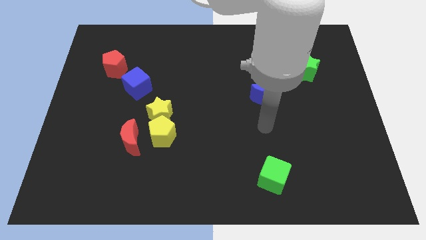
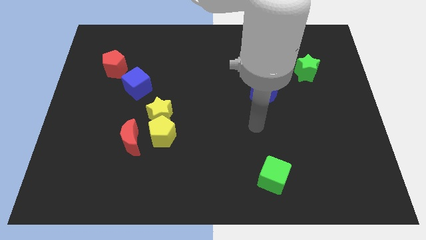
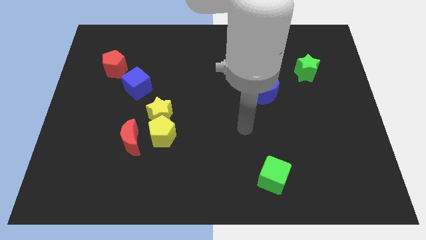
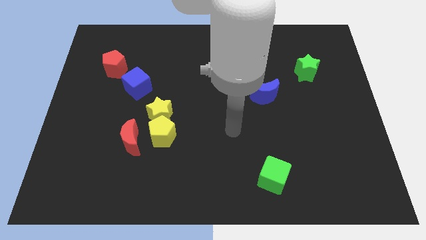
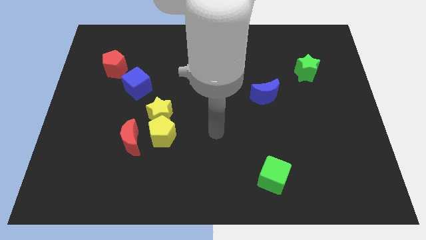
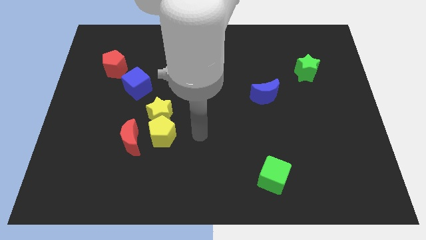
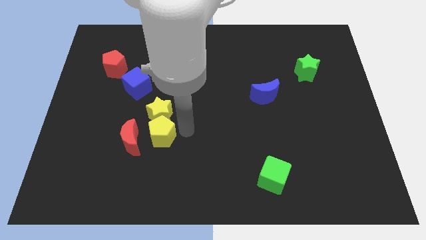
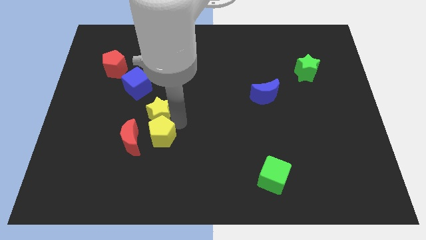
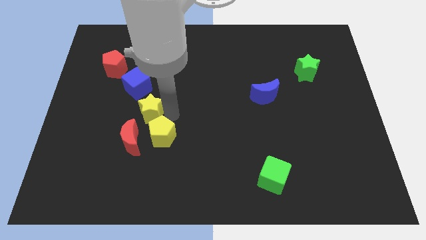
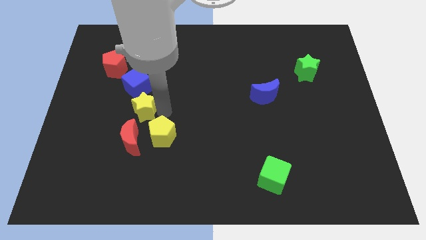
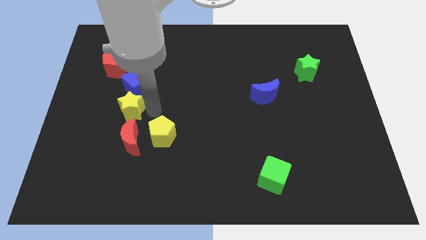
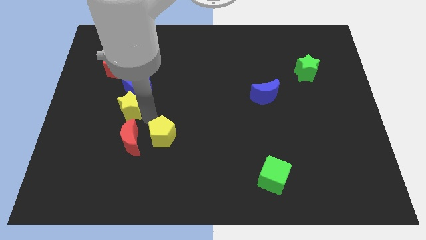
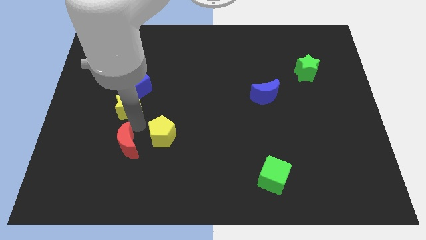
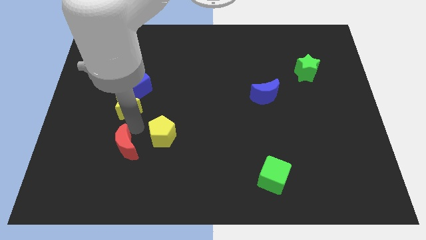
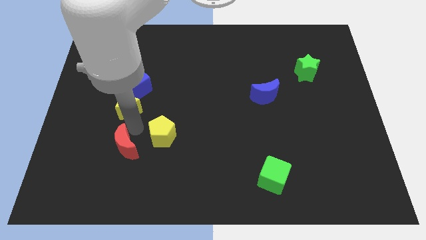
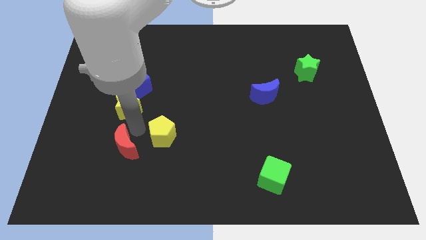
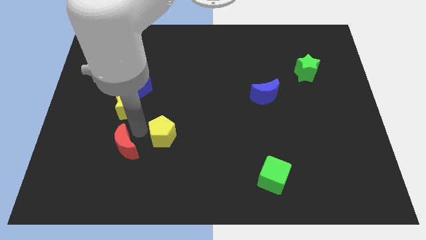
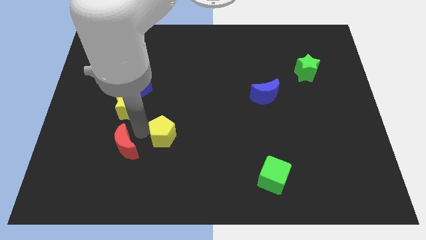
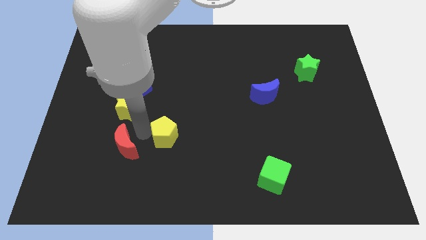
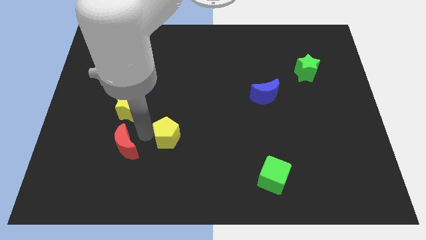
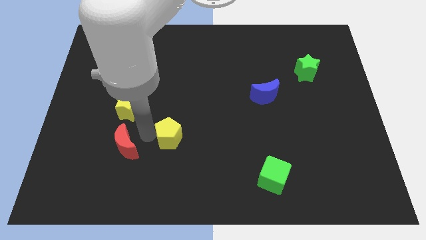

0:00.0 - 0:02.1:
move the yellow pentagon away from the yellow star and red moon

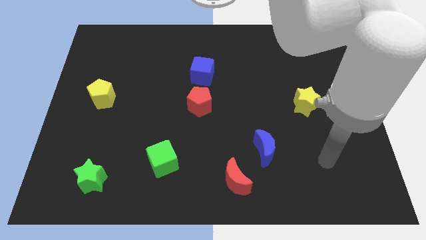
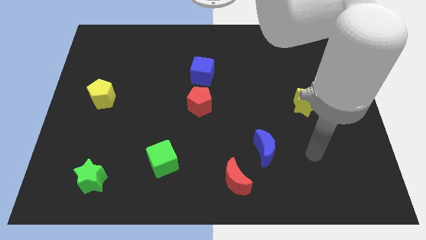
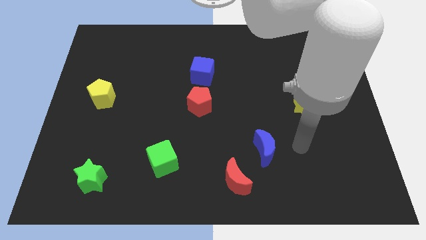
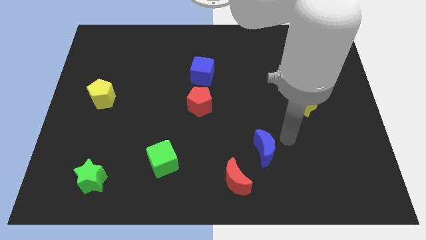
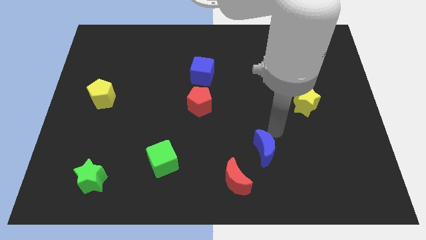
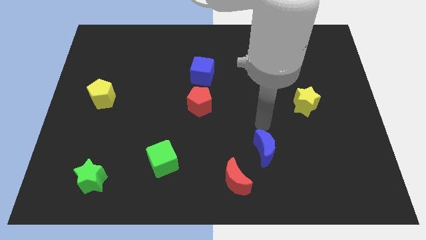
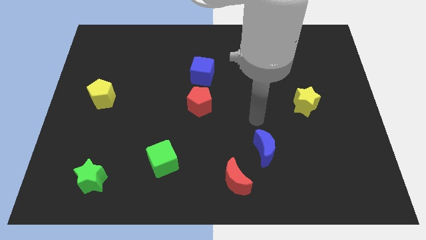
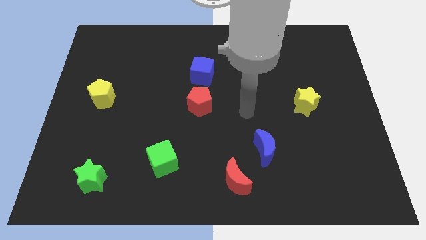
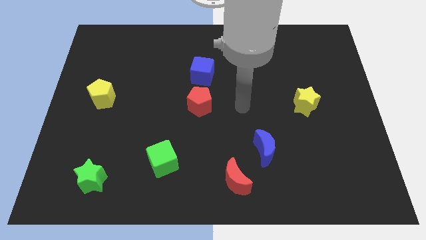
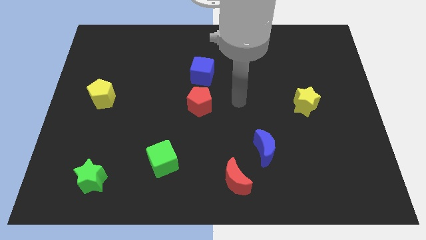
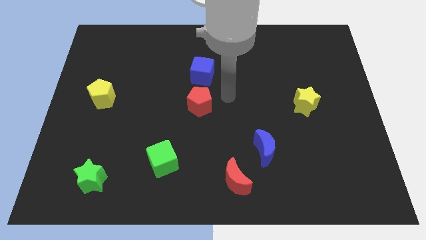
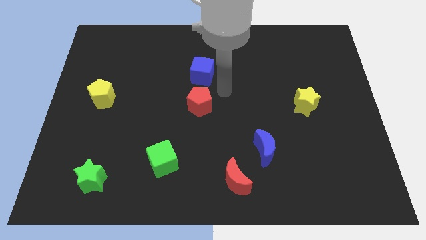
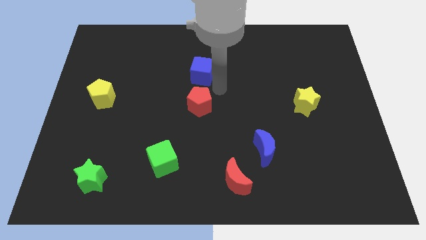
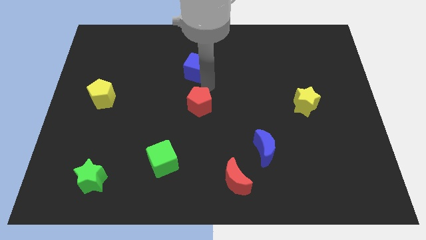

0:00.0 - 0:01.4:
pull the red pentagon apart from the blue cube

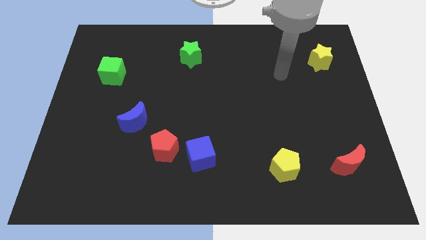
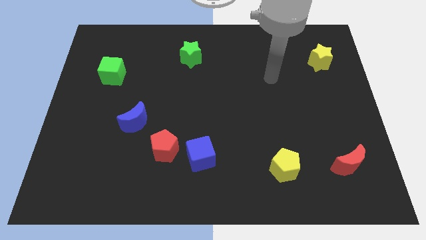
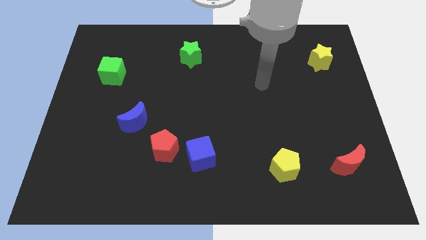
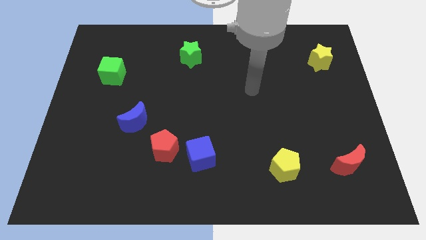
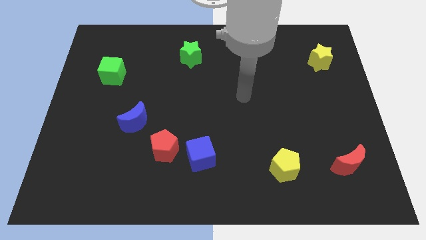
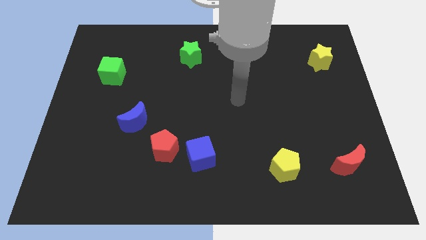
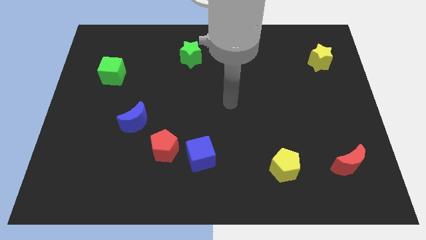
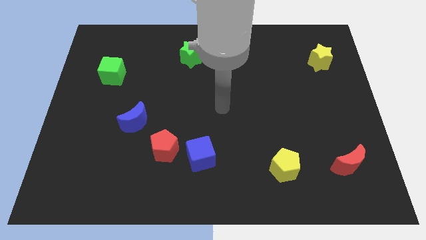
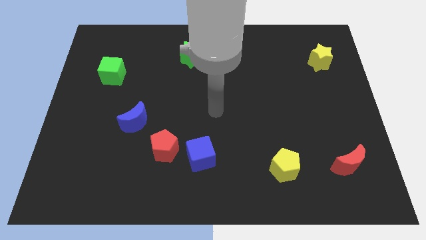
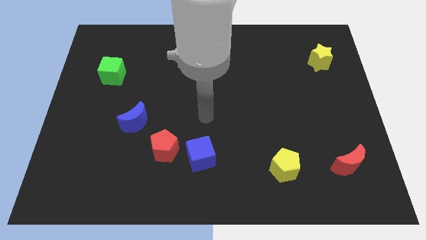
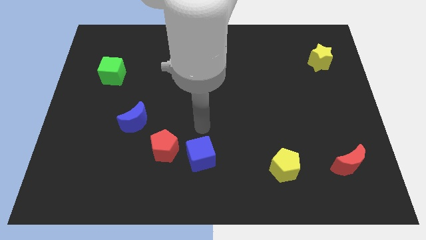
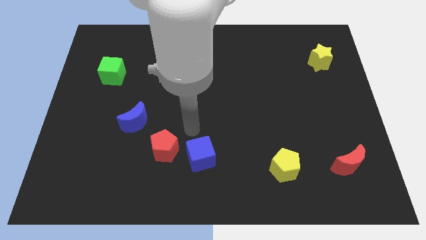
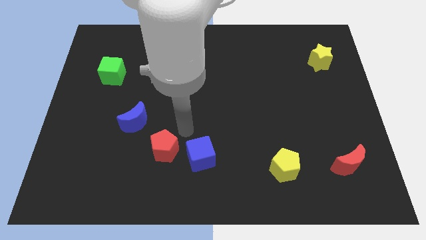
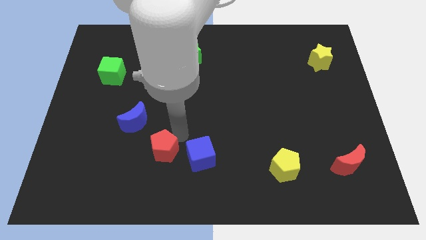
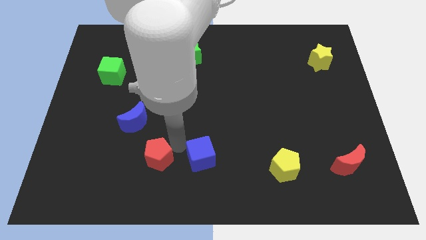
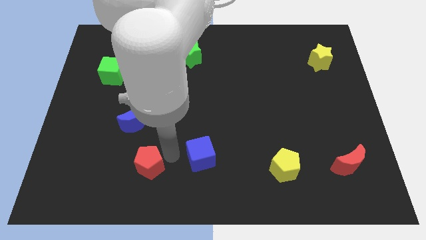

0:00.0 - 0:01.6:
move the blue cube away from the red pentagon

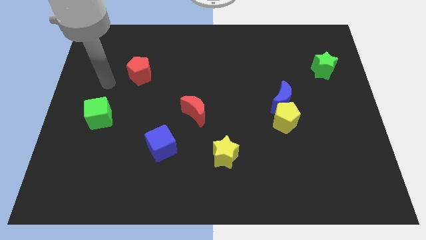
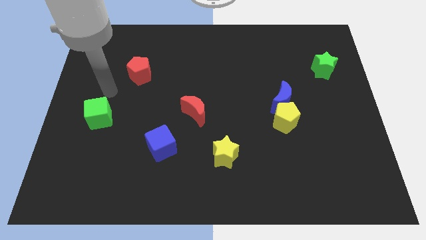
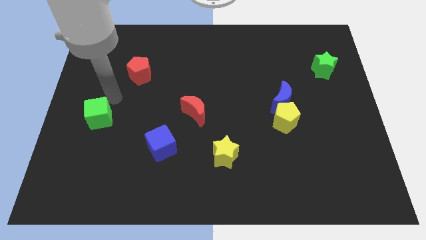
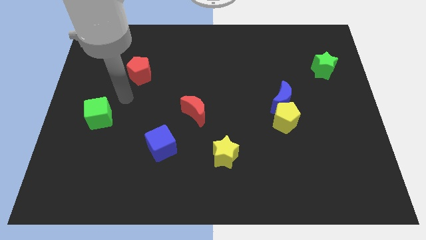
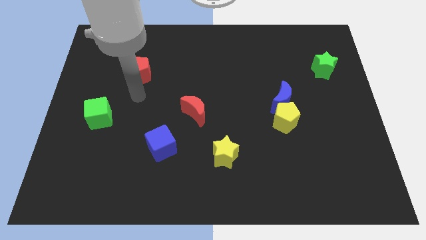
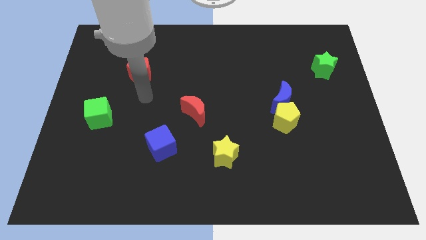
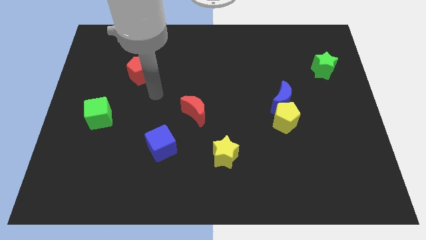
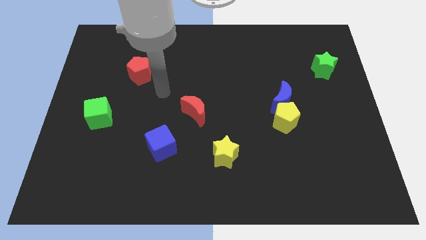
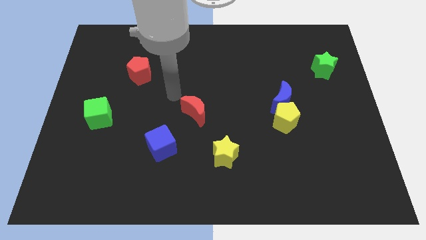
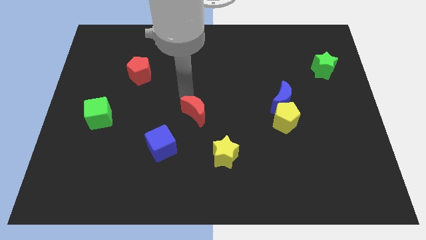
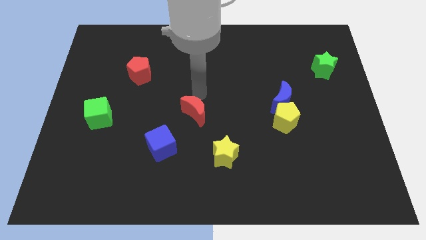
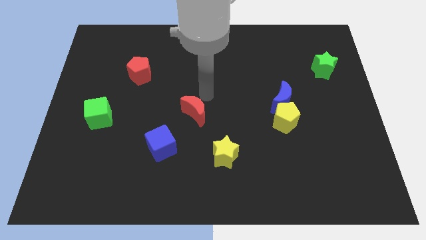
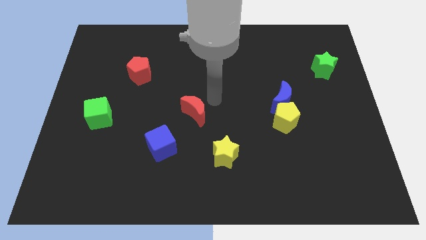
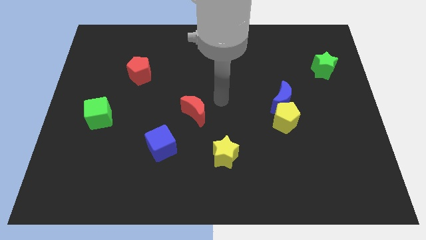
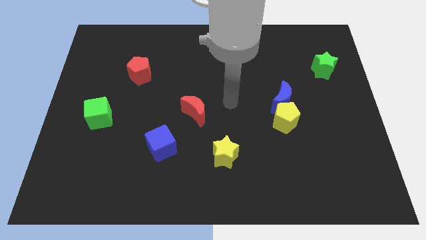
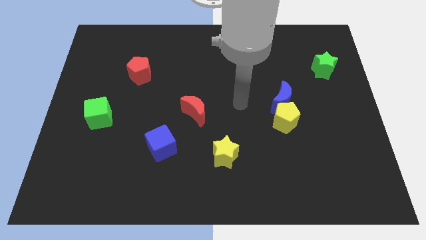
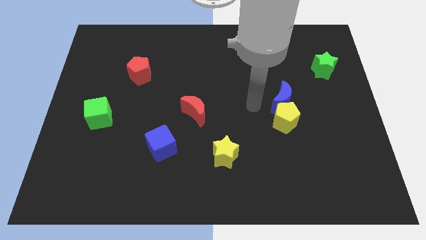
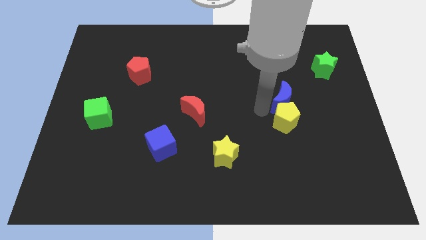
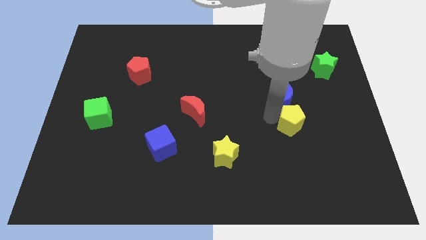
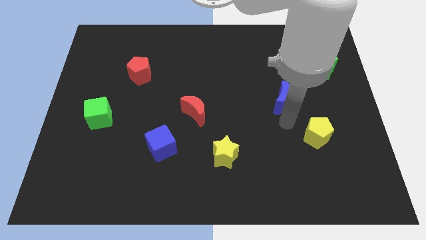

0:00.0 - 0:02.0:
move the blue moon away from the yellow pentagon

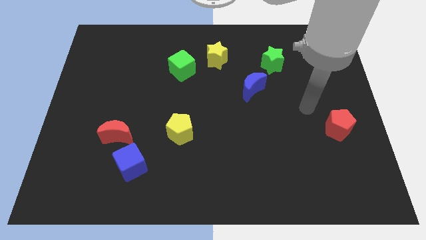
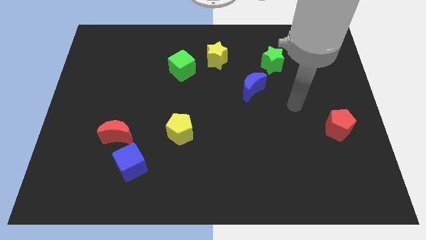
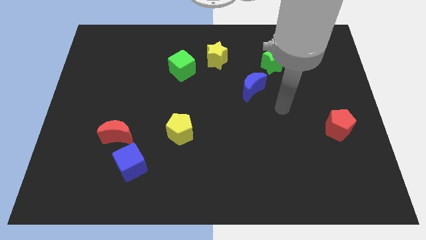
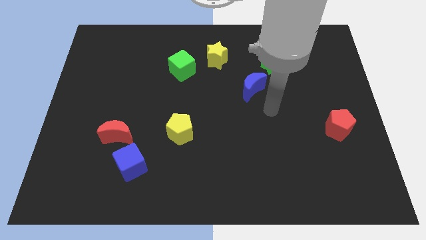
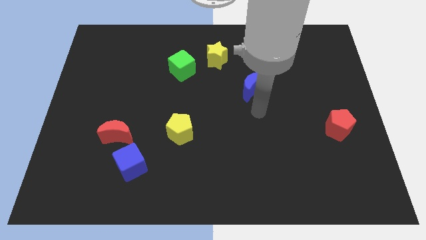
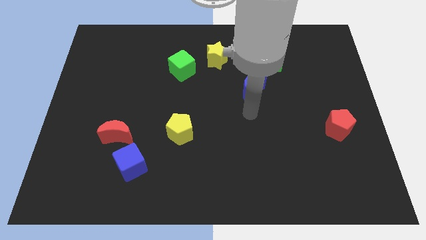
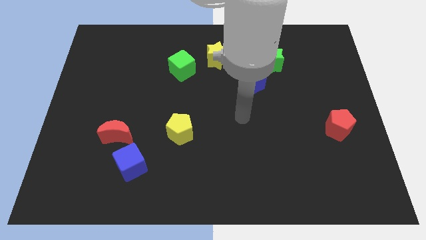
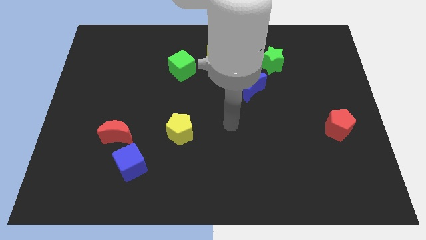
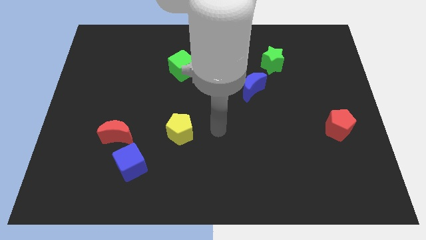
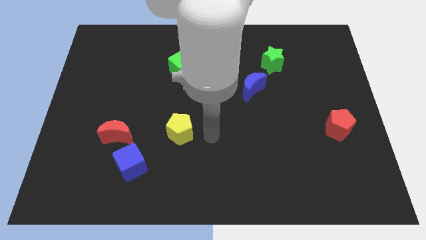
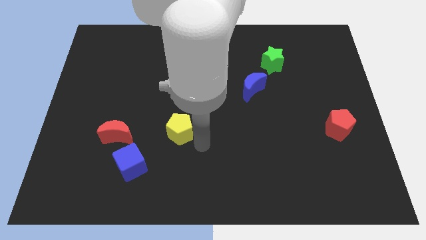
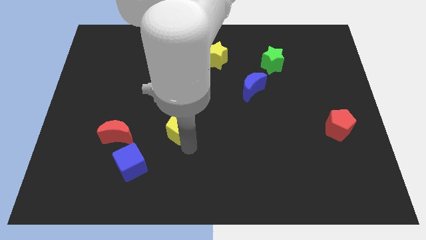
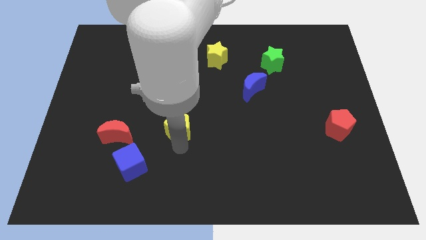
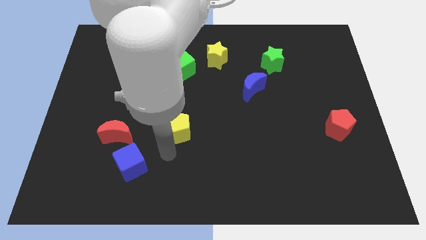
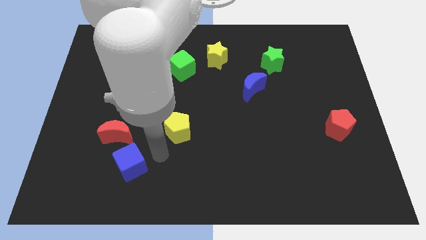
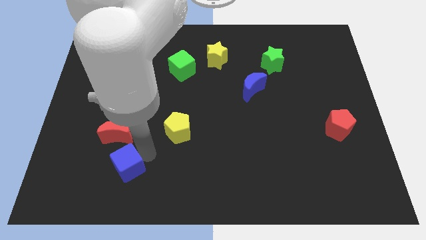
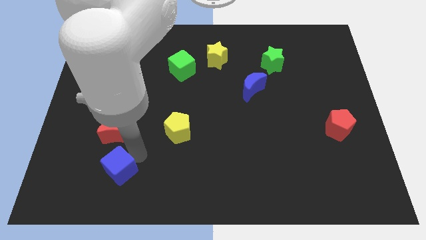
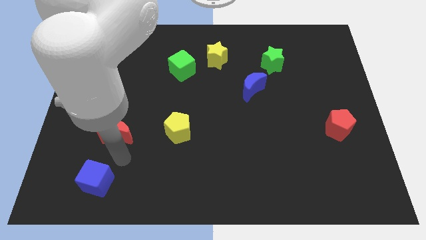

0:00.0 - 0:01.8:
separate the red moon from the blue cube

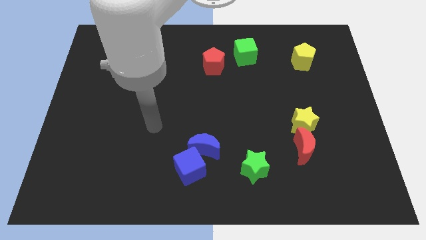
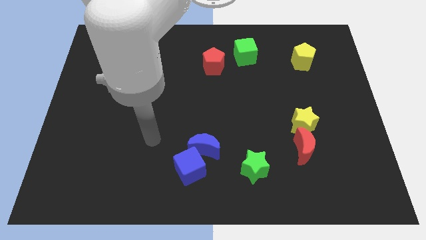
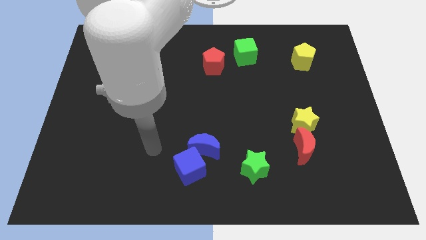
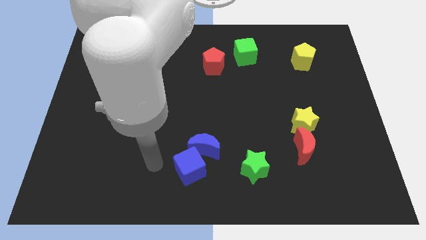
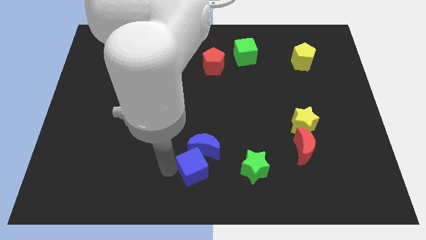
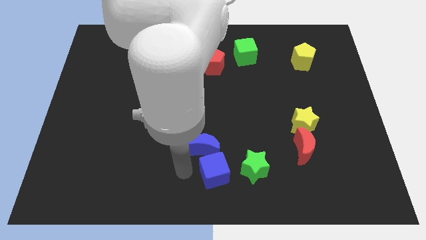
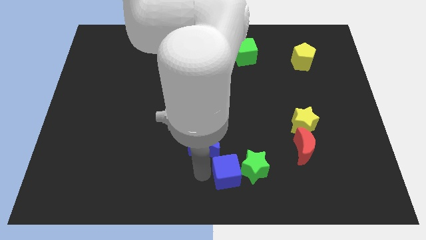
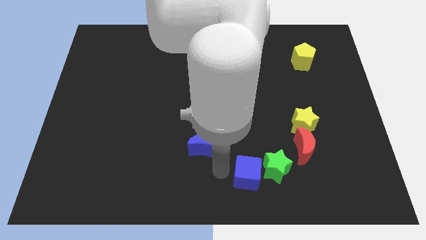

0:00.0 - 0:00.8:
separate the blue moon from the blue cube
